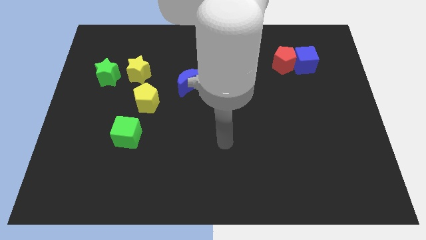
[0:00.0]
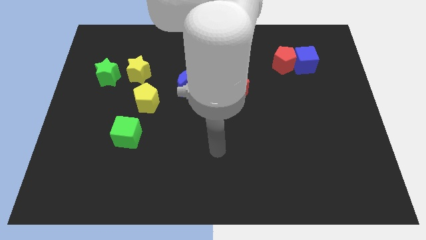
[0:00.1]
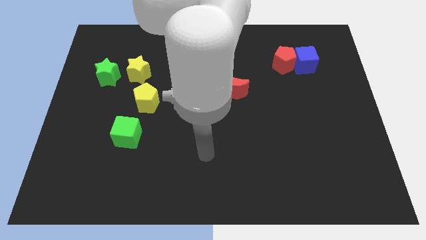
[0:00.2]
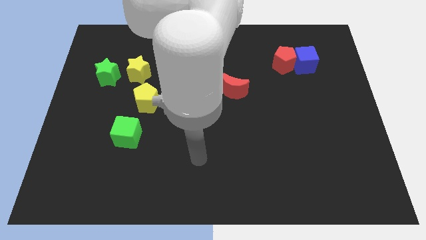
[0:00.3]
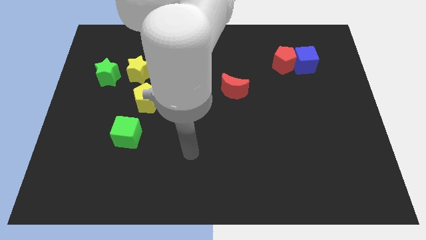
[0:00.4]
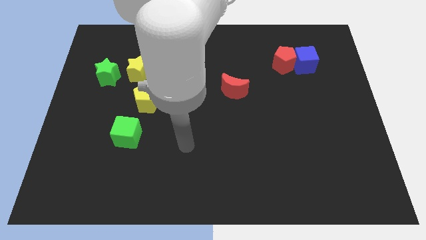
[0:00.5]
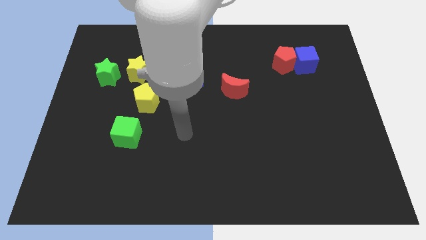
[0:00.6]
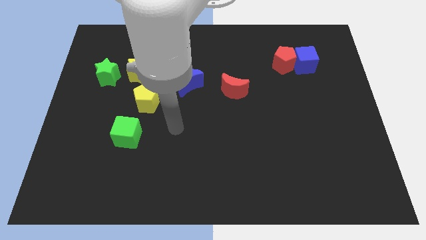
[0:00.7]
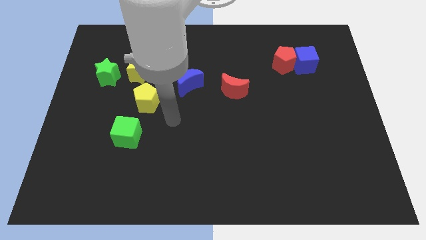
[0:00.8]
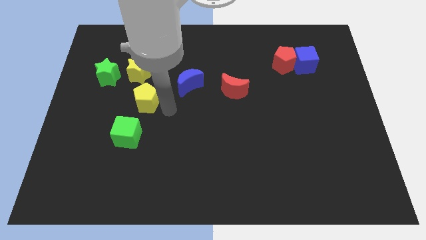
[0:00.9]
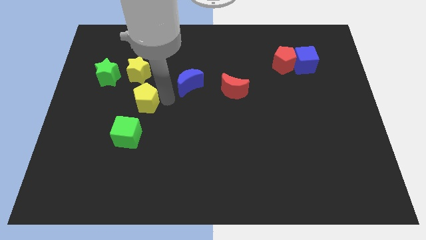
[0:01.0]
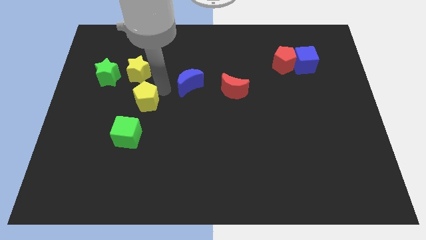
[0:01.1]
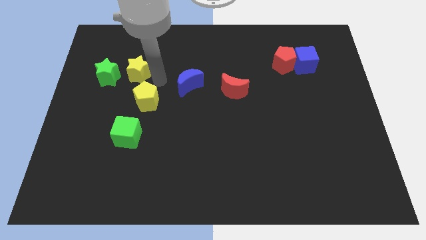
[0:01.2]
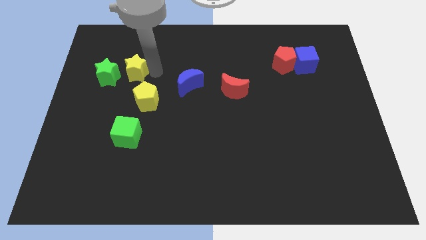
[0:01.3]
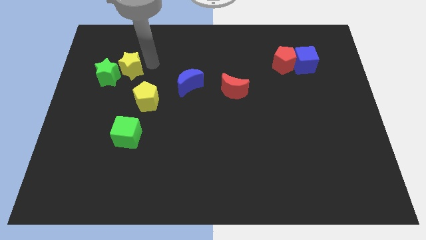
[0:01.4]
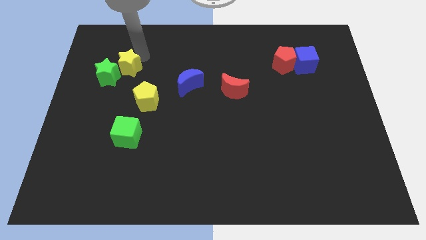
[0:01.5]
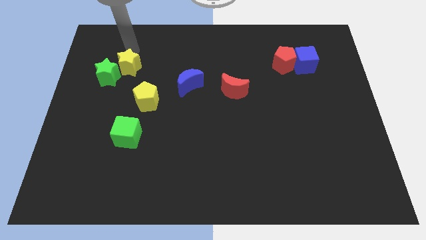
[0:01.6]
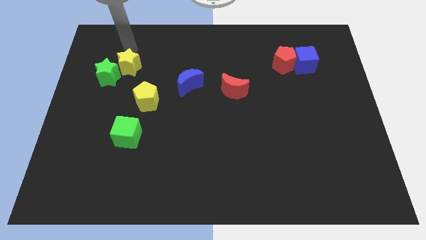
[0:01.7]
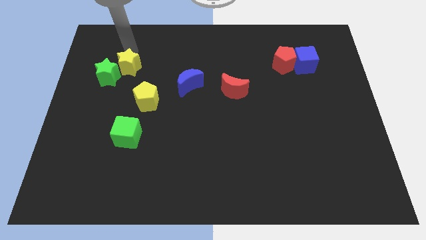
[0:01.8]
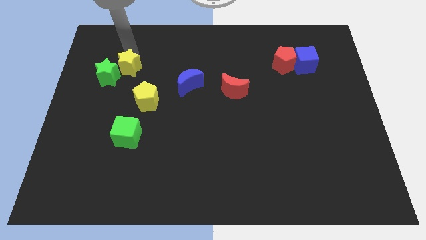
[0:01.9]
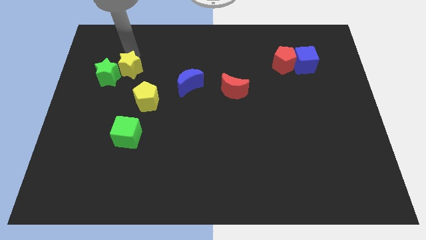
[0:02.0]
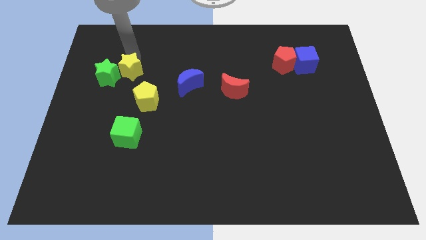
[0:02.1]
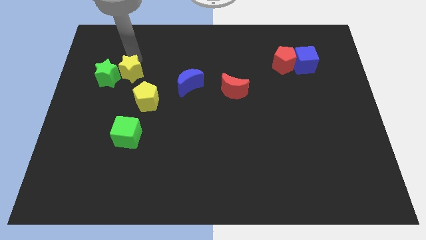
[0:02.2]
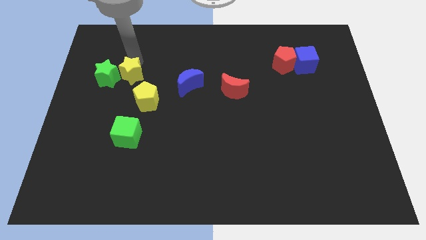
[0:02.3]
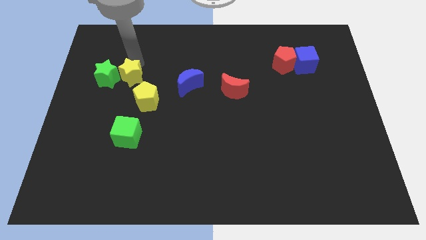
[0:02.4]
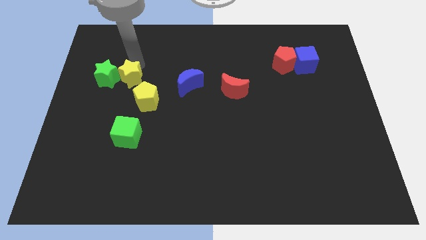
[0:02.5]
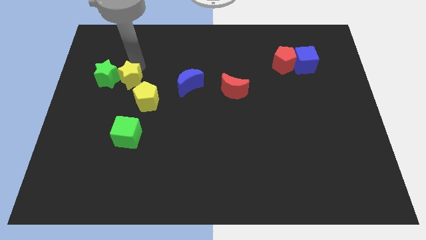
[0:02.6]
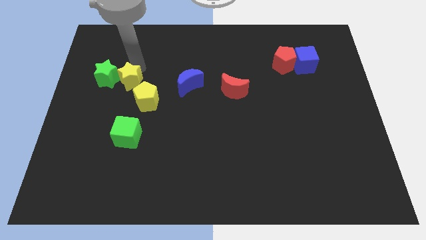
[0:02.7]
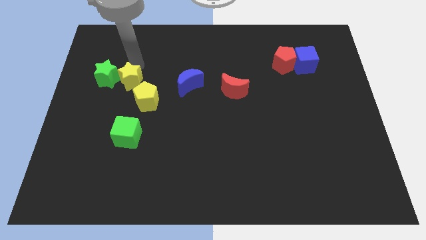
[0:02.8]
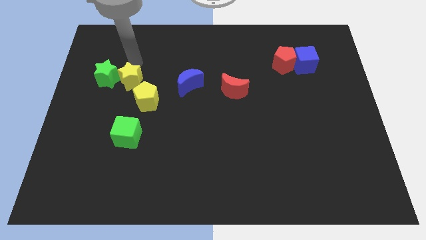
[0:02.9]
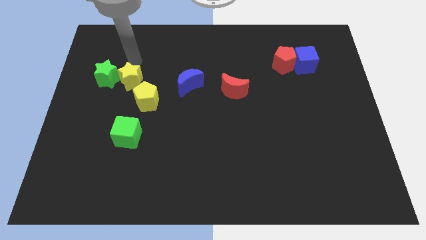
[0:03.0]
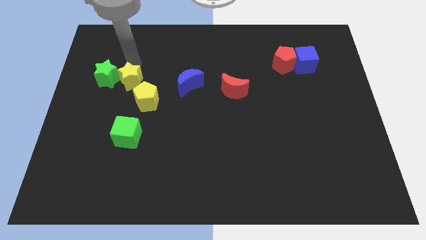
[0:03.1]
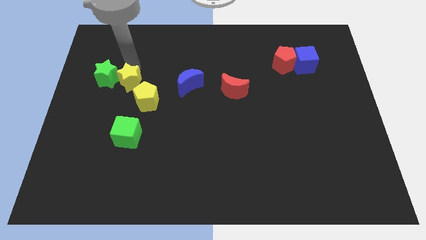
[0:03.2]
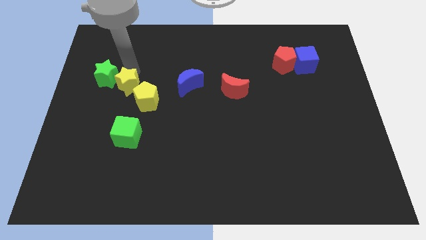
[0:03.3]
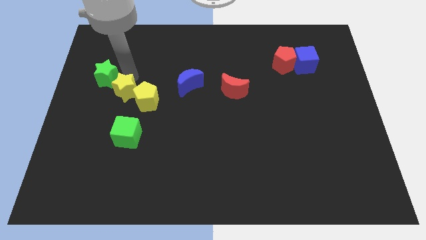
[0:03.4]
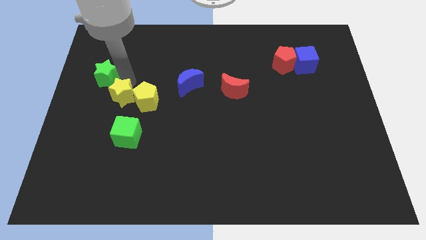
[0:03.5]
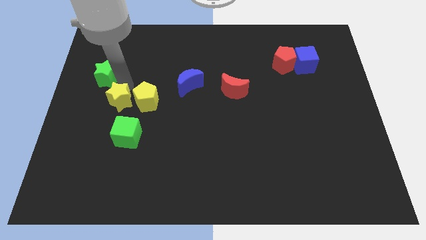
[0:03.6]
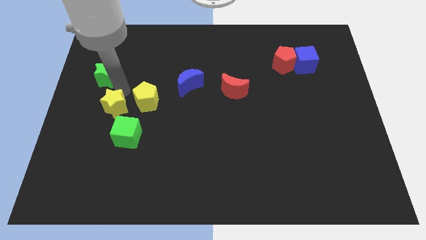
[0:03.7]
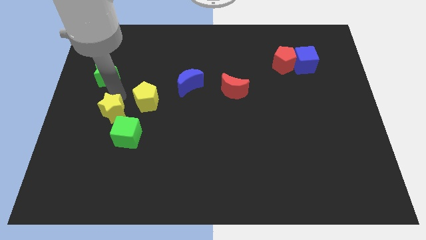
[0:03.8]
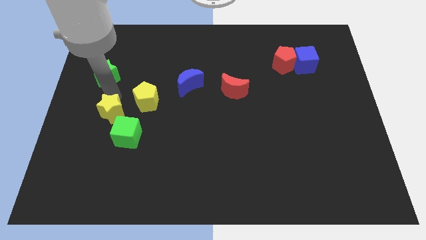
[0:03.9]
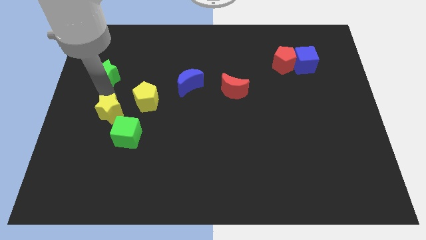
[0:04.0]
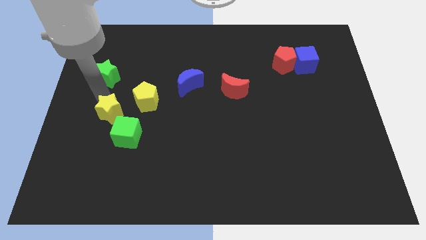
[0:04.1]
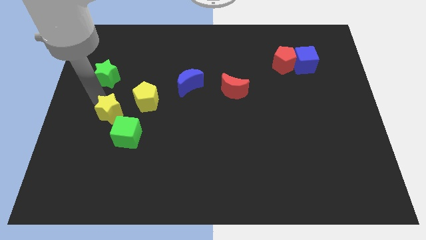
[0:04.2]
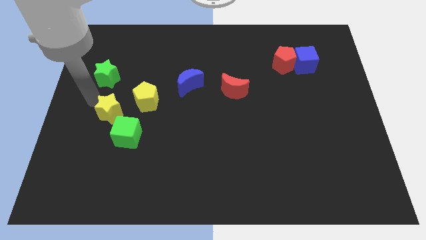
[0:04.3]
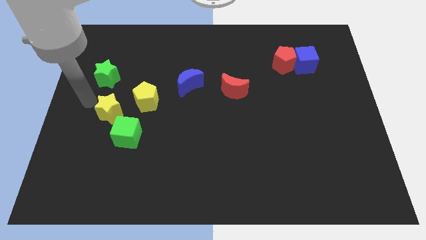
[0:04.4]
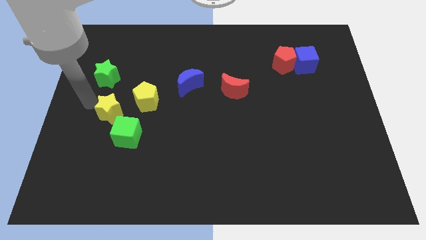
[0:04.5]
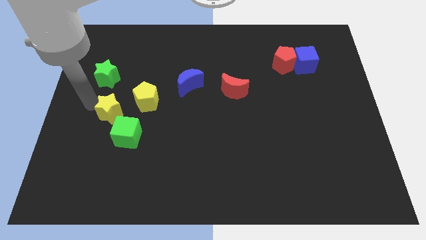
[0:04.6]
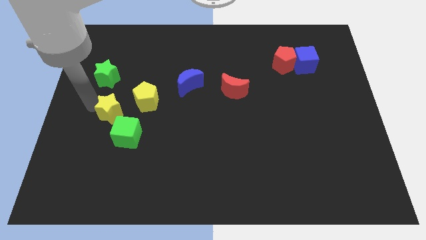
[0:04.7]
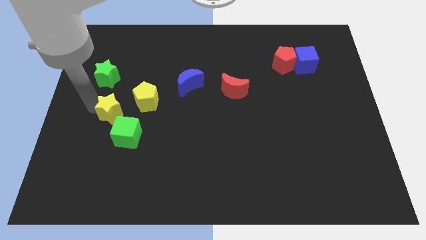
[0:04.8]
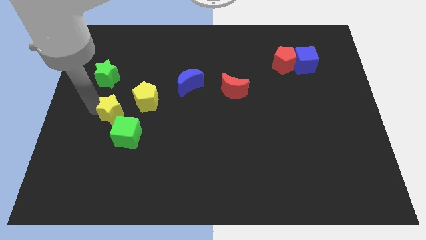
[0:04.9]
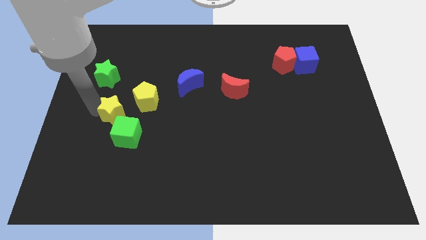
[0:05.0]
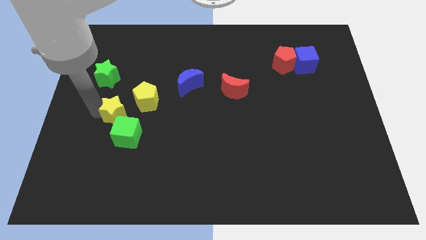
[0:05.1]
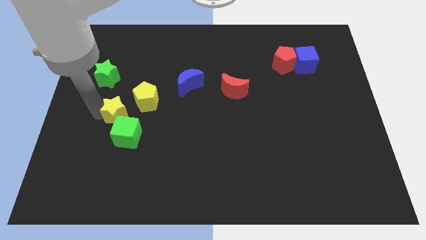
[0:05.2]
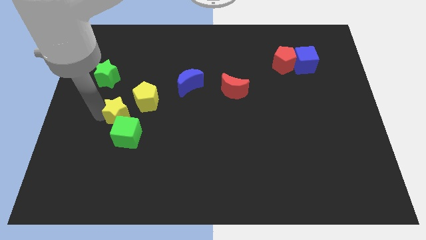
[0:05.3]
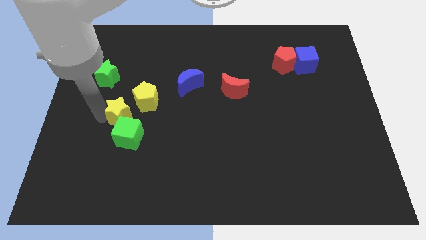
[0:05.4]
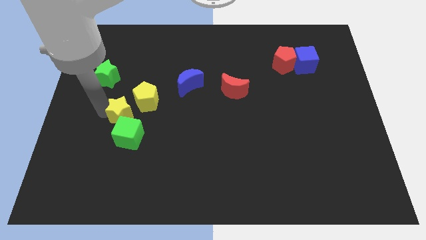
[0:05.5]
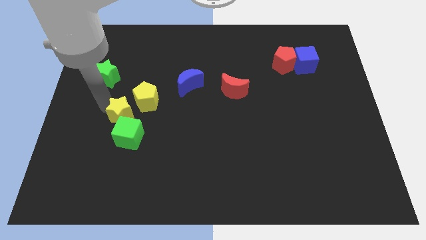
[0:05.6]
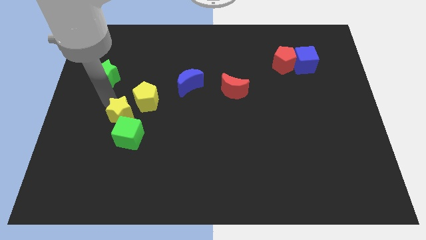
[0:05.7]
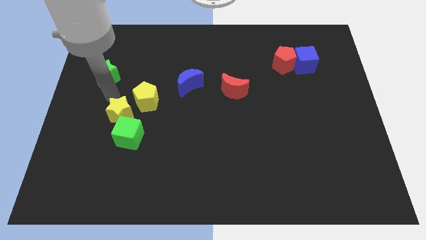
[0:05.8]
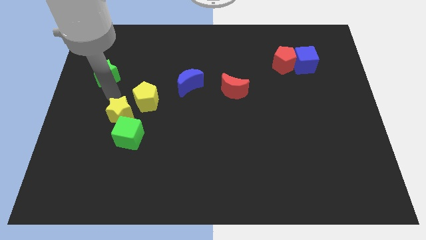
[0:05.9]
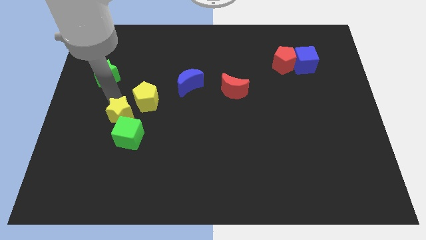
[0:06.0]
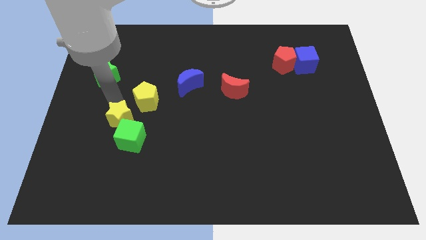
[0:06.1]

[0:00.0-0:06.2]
push the yellow star next to the green cube
